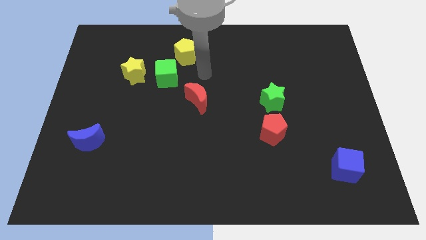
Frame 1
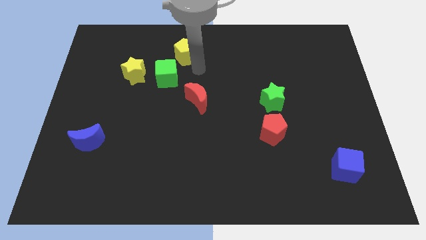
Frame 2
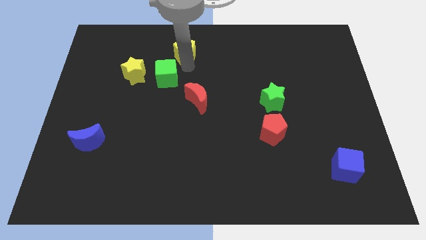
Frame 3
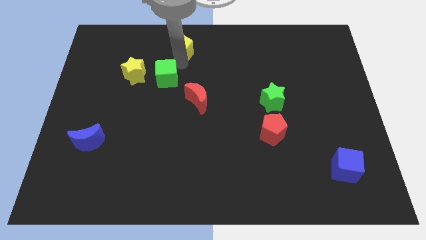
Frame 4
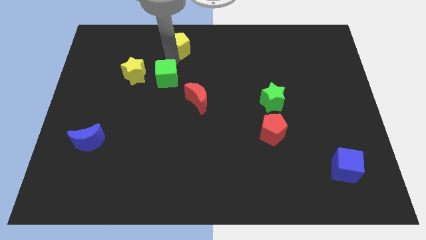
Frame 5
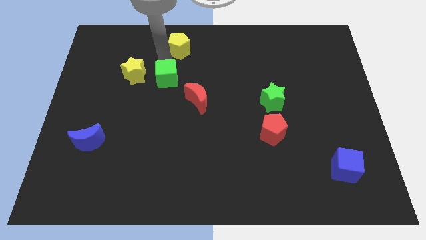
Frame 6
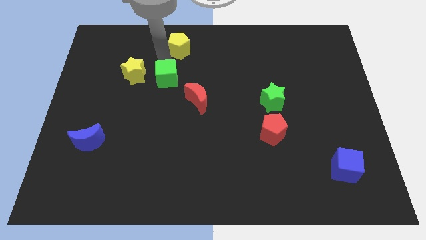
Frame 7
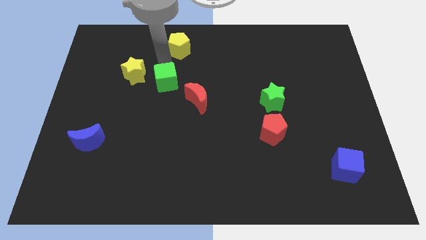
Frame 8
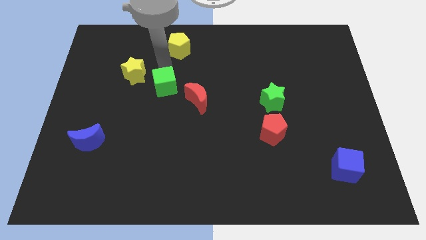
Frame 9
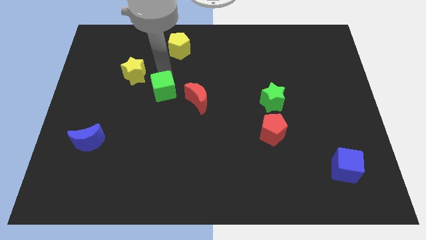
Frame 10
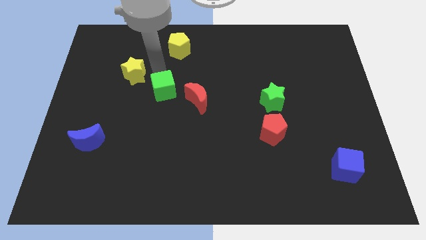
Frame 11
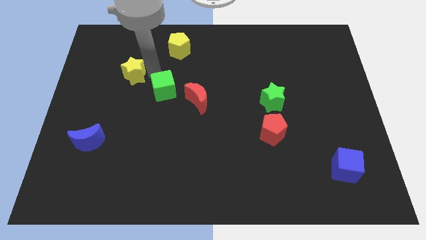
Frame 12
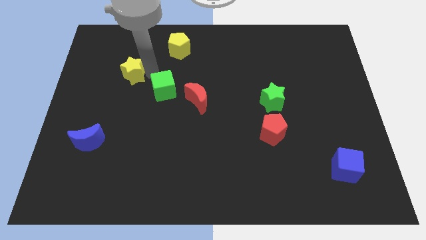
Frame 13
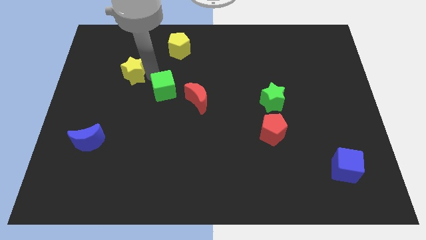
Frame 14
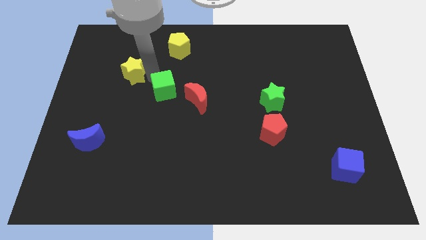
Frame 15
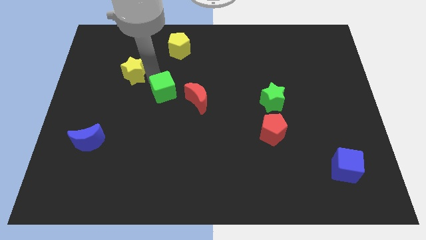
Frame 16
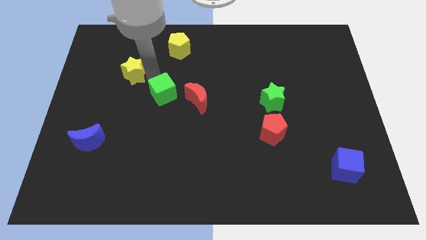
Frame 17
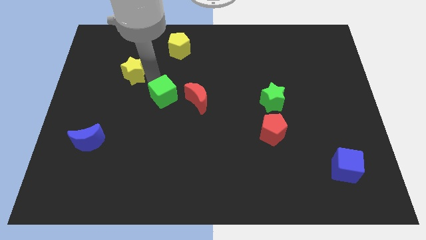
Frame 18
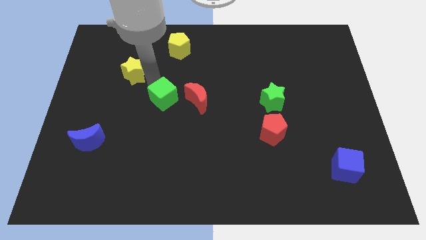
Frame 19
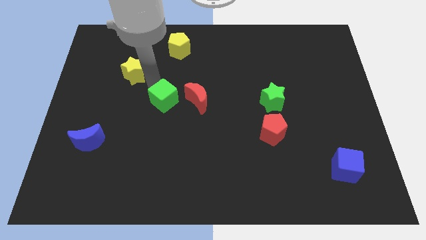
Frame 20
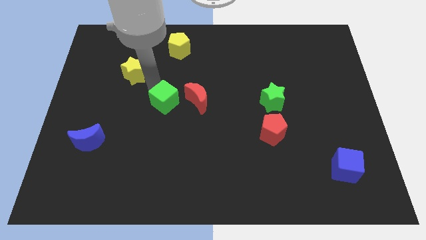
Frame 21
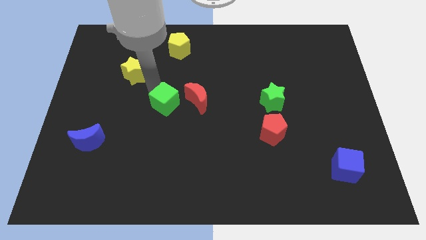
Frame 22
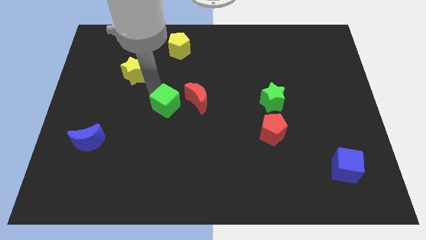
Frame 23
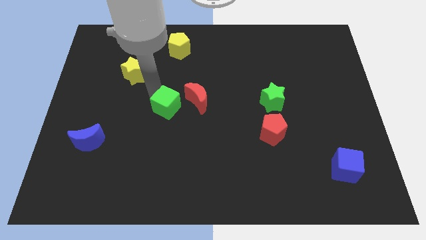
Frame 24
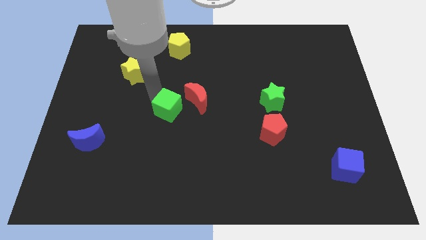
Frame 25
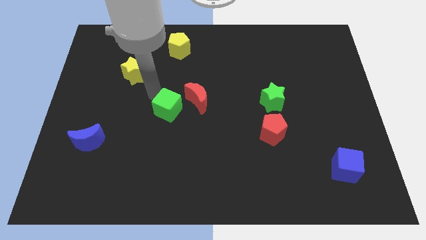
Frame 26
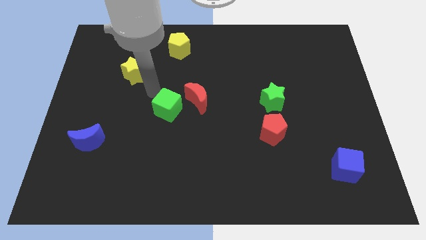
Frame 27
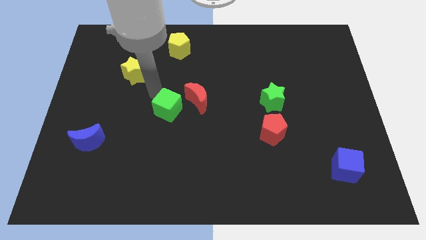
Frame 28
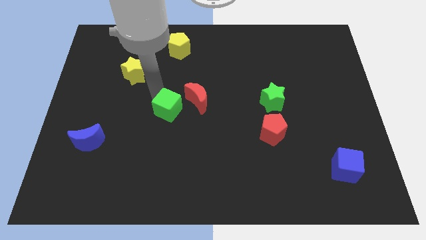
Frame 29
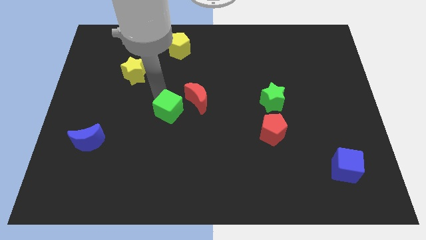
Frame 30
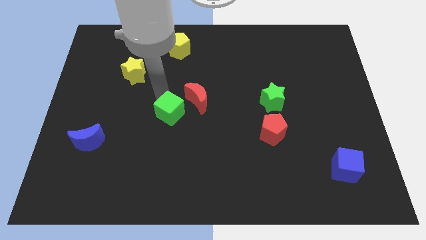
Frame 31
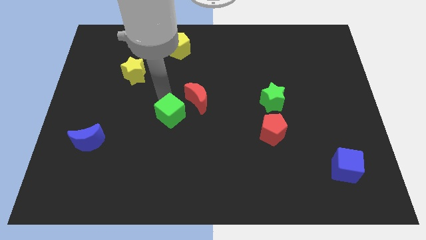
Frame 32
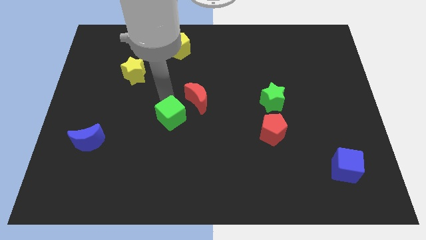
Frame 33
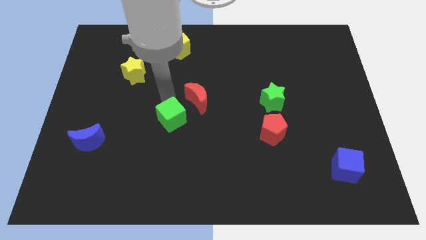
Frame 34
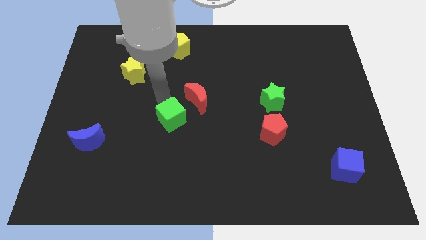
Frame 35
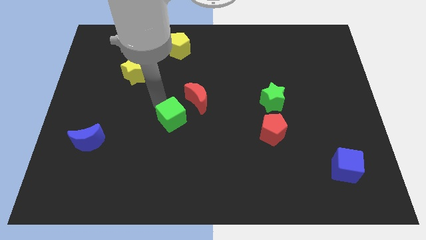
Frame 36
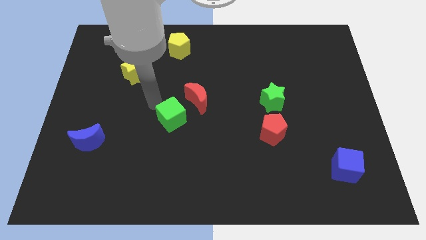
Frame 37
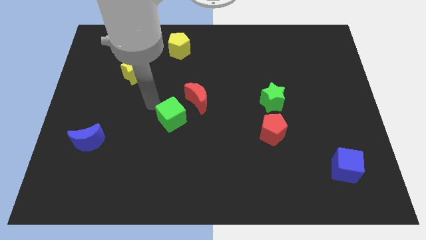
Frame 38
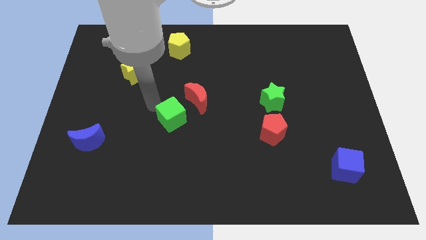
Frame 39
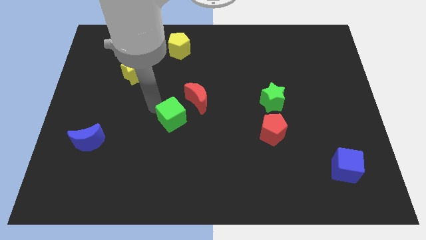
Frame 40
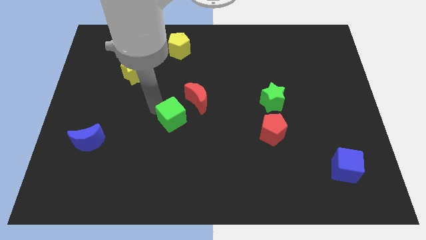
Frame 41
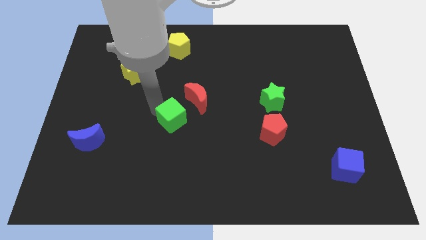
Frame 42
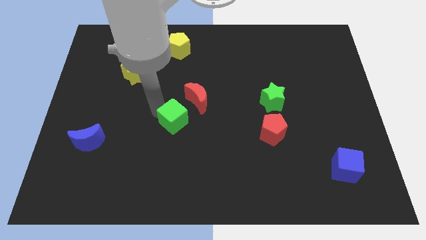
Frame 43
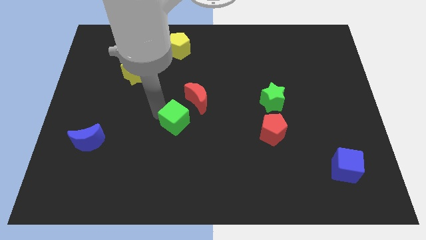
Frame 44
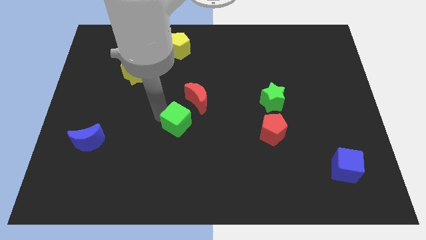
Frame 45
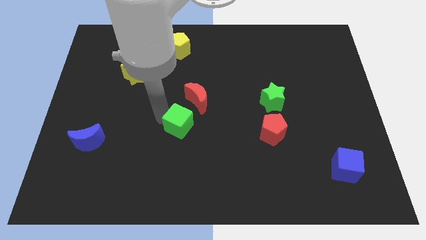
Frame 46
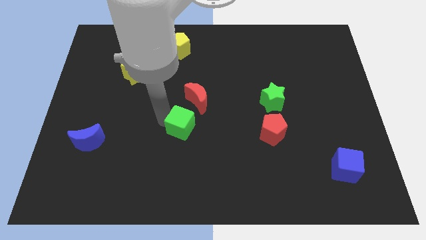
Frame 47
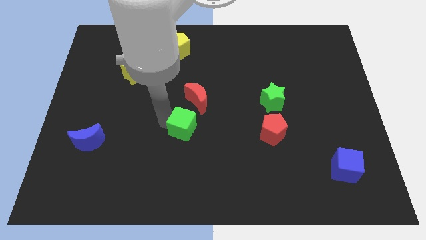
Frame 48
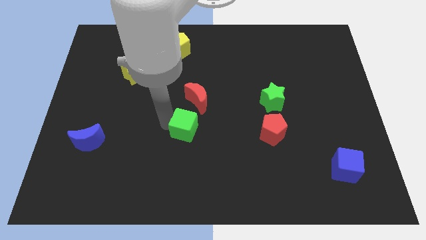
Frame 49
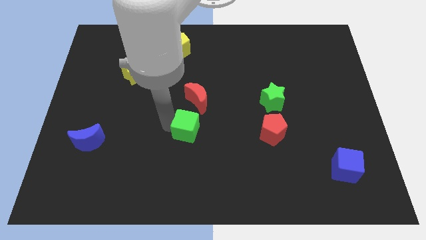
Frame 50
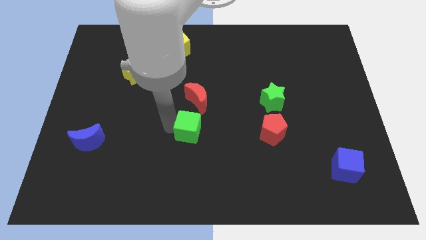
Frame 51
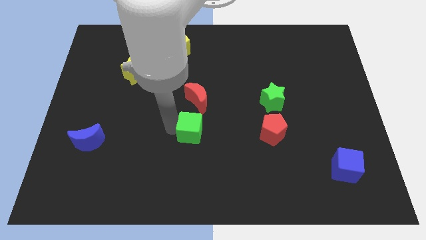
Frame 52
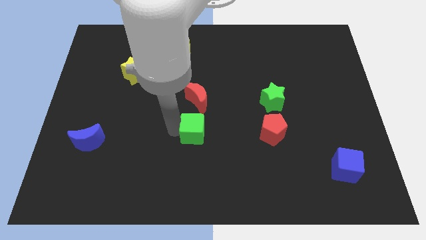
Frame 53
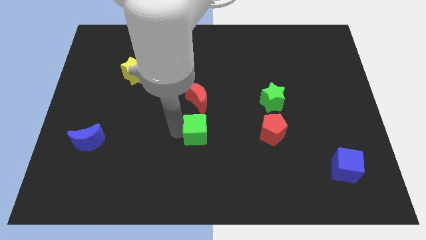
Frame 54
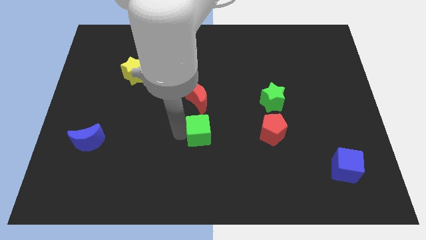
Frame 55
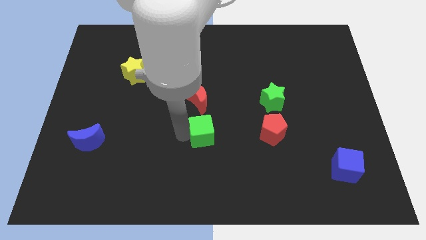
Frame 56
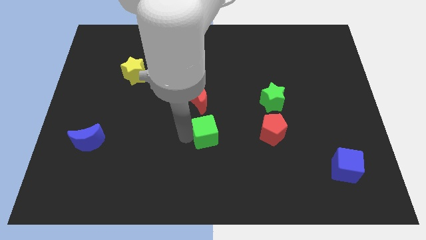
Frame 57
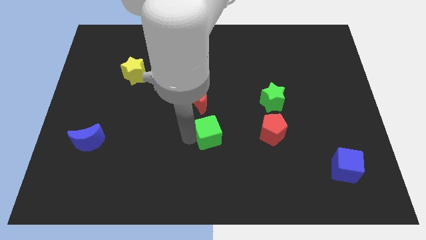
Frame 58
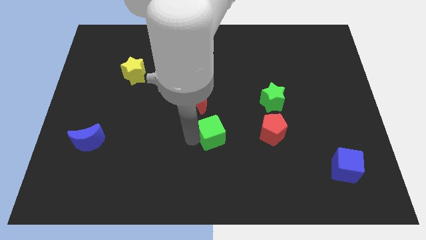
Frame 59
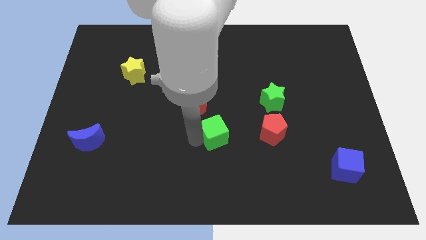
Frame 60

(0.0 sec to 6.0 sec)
move the green cube to the bottom right side of the red moon

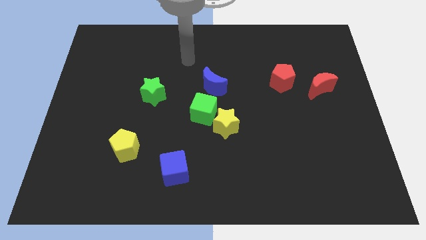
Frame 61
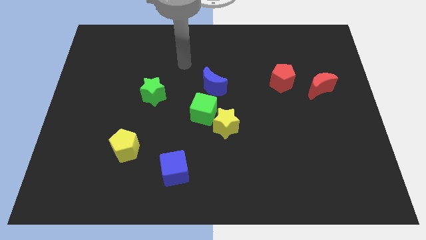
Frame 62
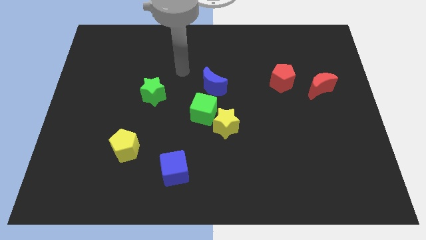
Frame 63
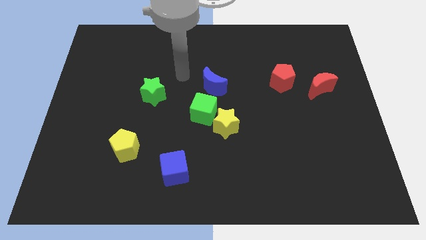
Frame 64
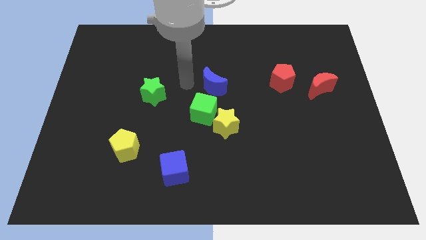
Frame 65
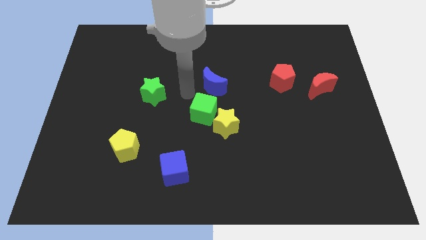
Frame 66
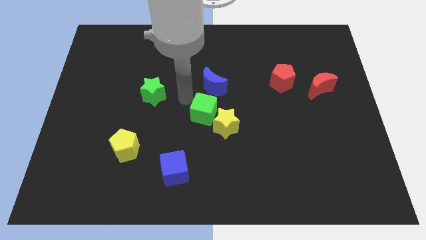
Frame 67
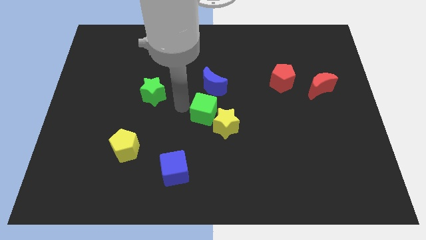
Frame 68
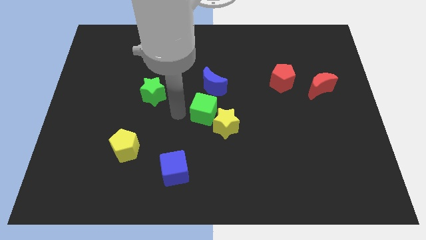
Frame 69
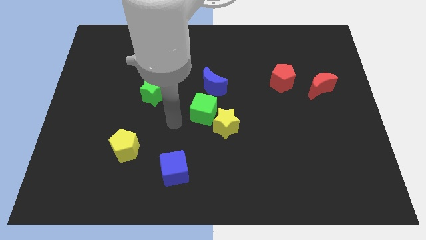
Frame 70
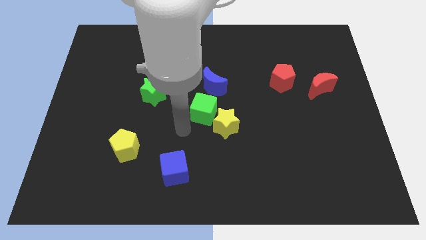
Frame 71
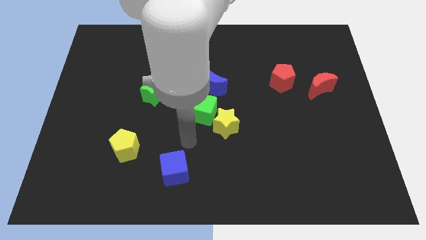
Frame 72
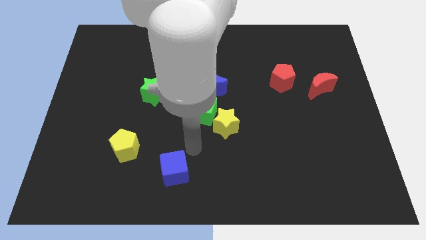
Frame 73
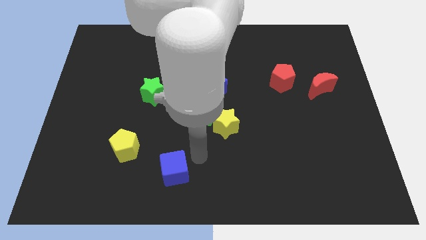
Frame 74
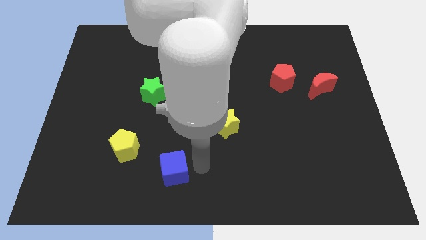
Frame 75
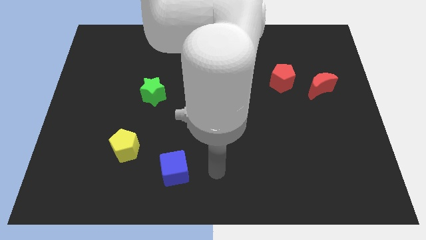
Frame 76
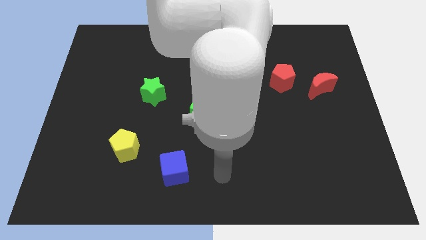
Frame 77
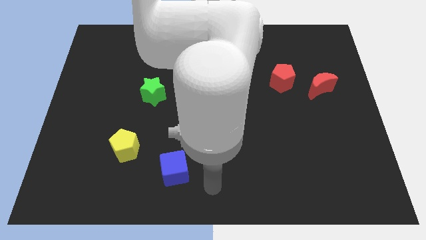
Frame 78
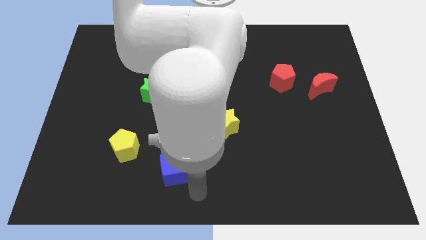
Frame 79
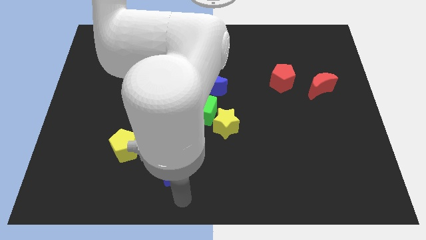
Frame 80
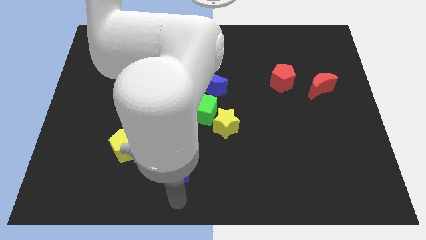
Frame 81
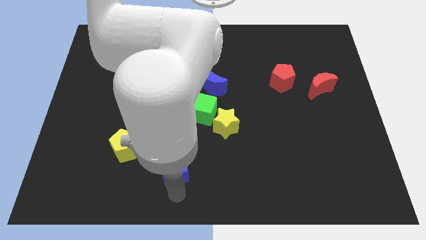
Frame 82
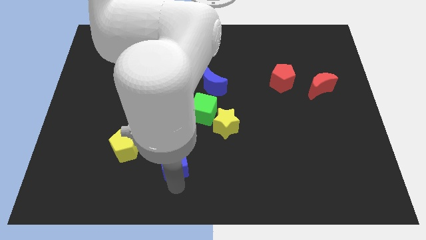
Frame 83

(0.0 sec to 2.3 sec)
slide the blue cube just right of the yellow pentagon
